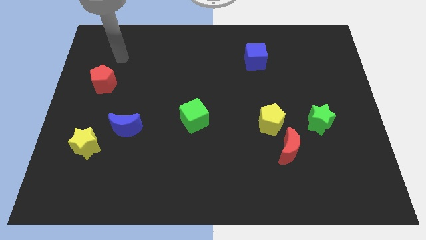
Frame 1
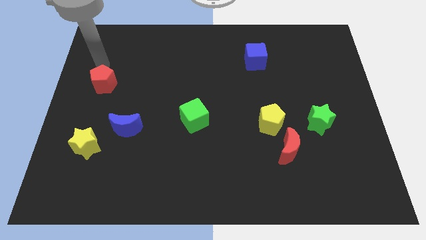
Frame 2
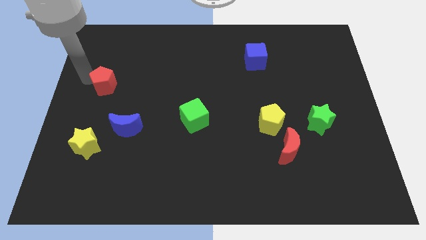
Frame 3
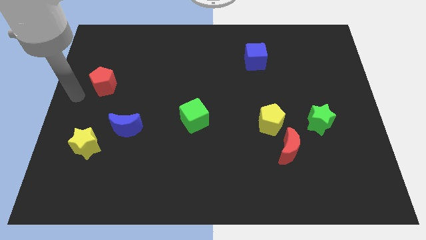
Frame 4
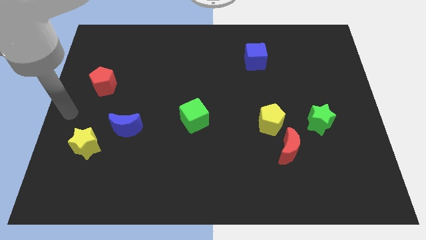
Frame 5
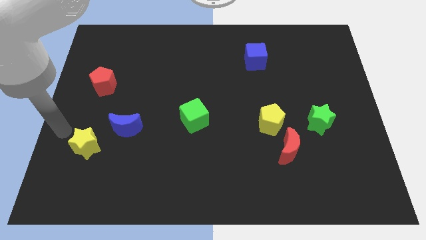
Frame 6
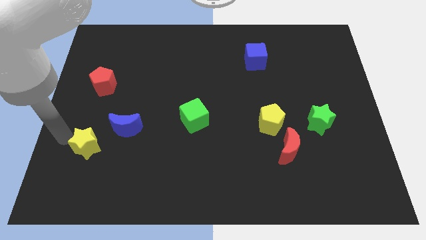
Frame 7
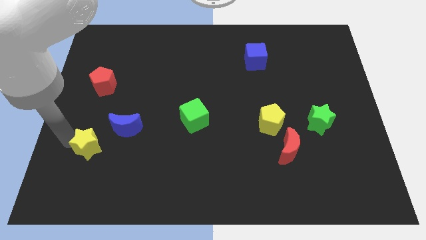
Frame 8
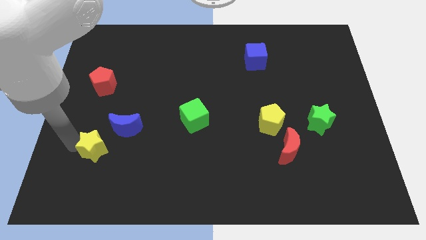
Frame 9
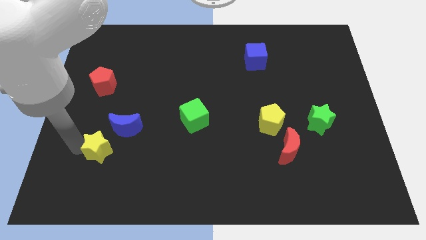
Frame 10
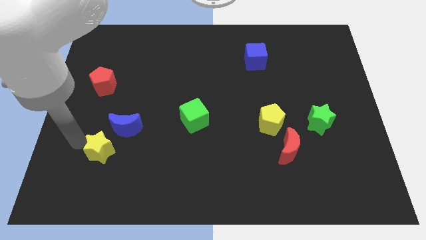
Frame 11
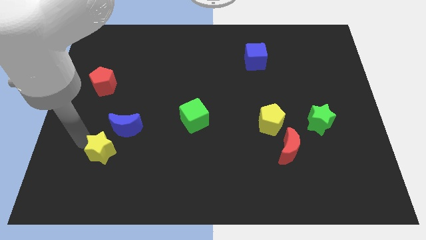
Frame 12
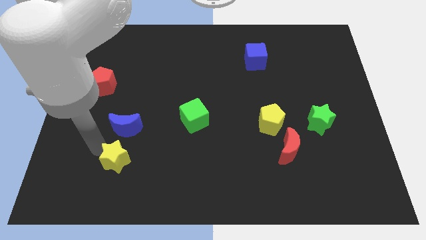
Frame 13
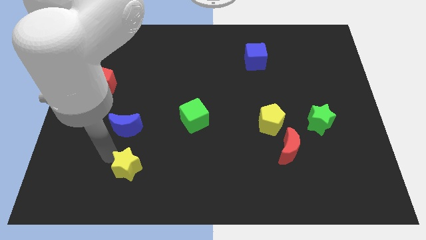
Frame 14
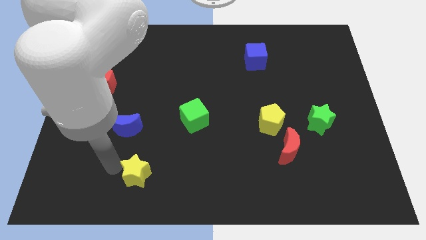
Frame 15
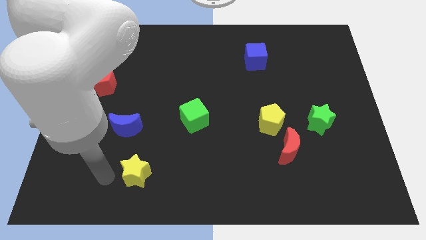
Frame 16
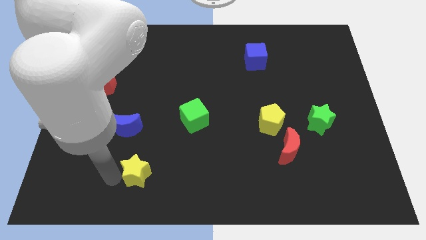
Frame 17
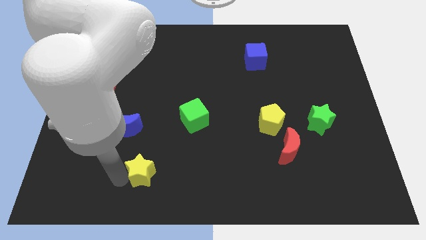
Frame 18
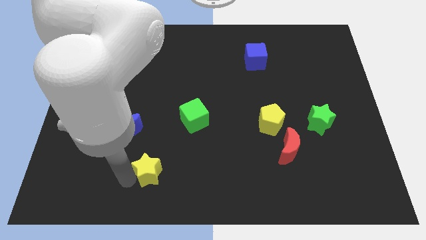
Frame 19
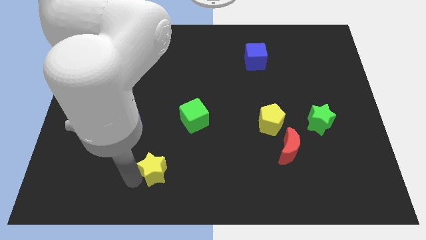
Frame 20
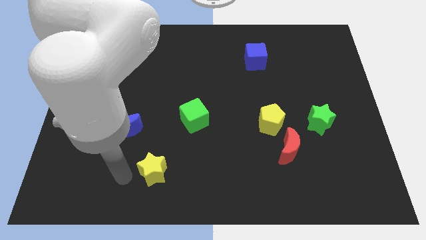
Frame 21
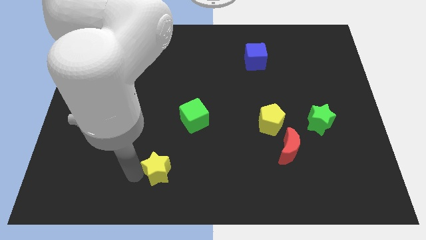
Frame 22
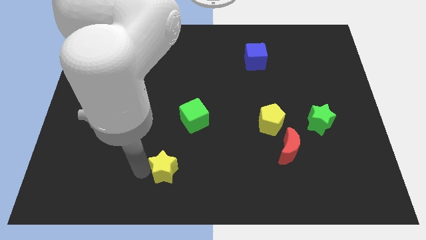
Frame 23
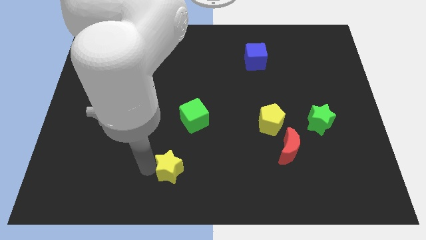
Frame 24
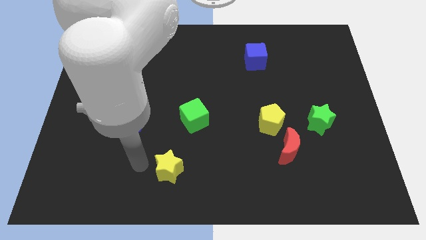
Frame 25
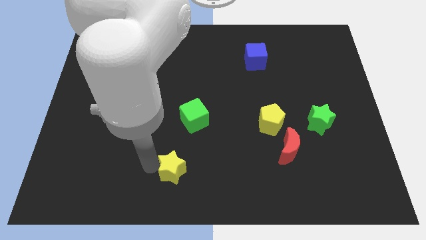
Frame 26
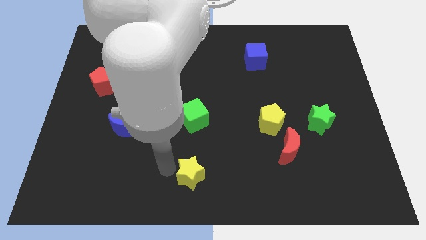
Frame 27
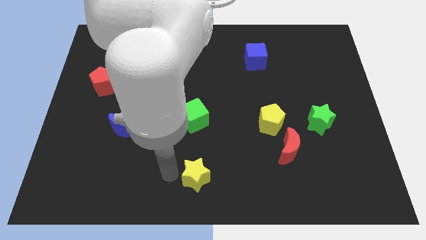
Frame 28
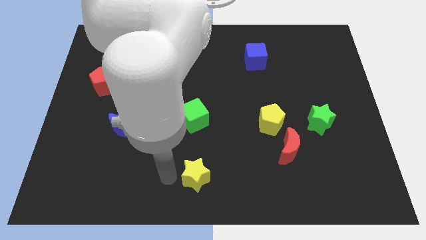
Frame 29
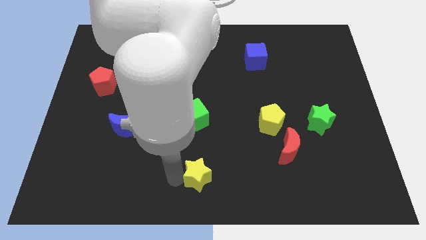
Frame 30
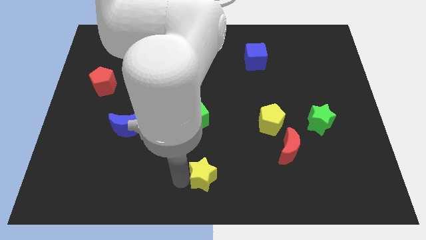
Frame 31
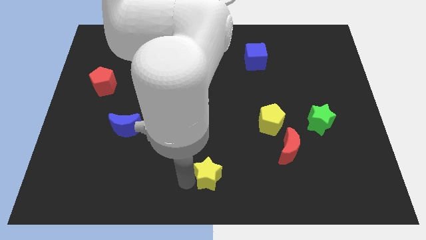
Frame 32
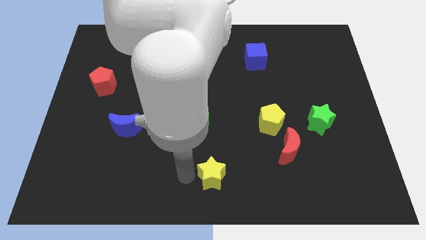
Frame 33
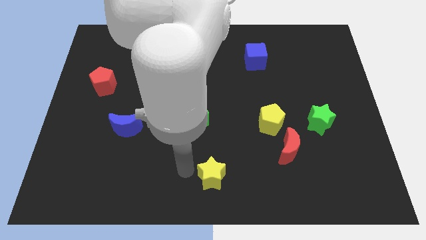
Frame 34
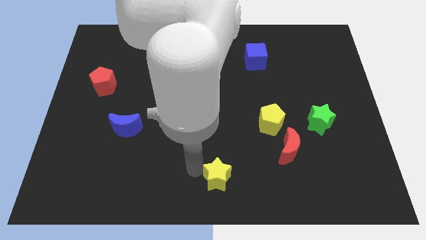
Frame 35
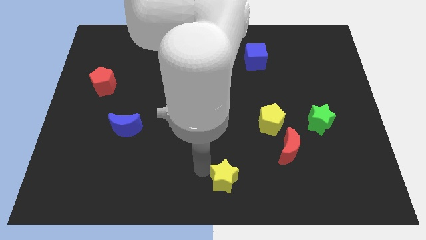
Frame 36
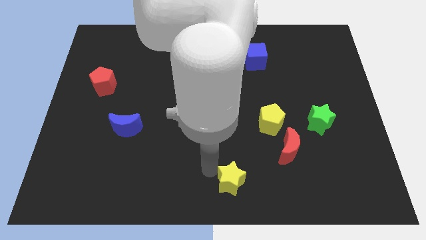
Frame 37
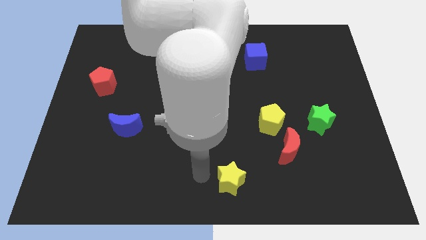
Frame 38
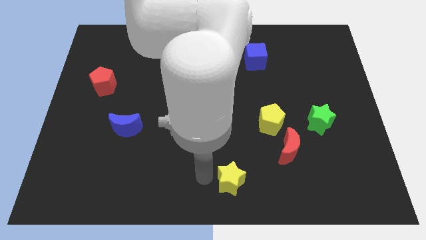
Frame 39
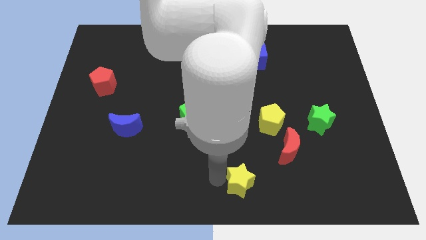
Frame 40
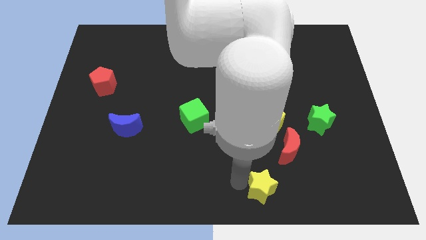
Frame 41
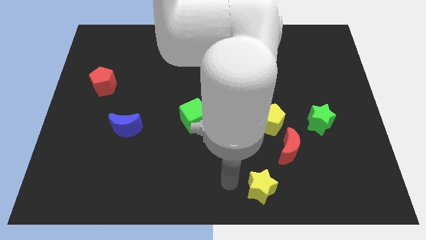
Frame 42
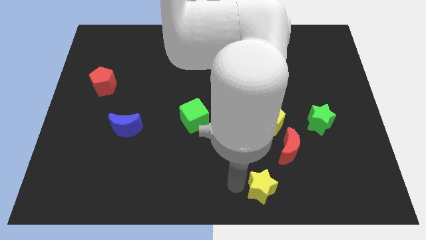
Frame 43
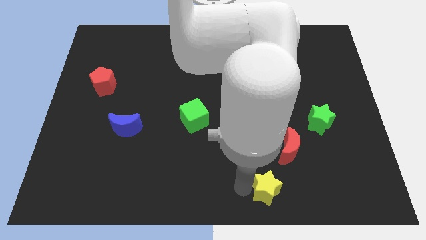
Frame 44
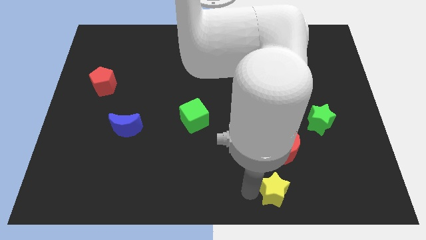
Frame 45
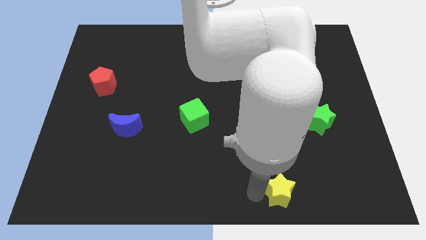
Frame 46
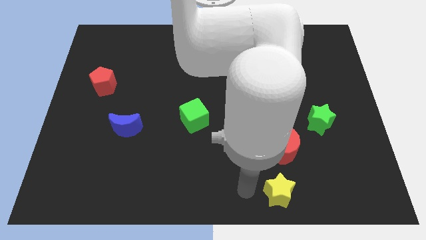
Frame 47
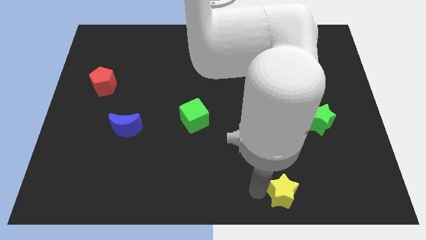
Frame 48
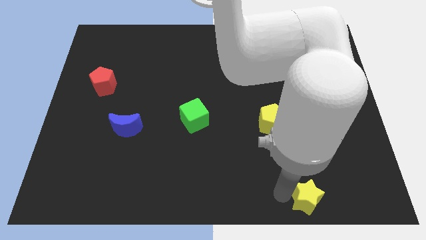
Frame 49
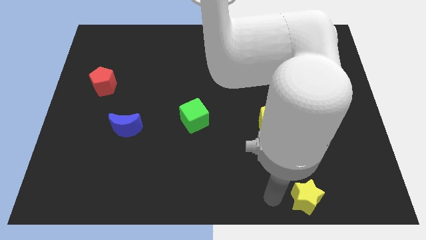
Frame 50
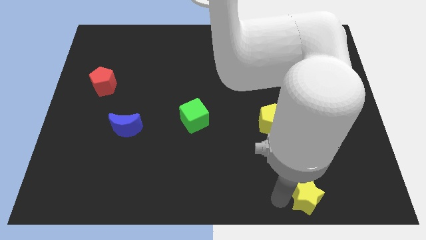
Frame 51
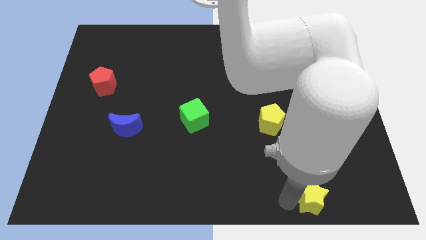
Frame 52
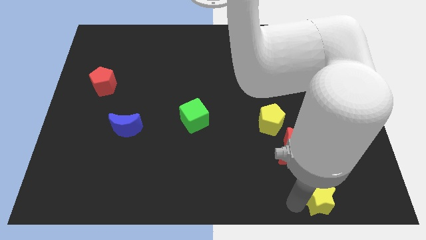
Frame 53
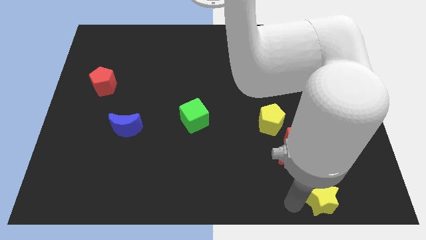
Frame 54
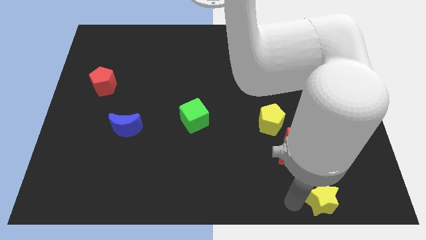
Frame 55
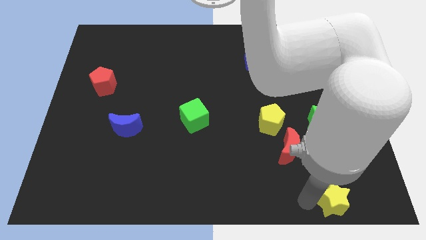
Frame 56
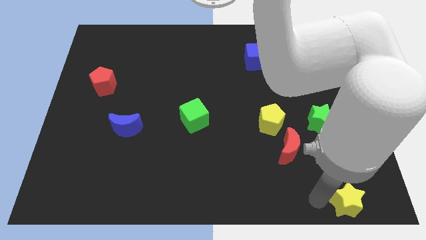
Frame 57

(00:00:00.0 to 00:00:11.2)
slide the yellow star to the bottom right of the board

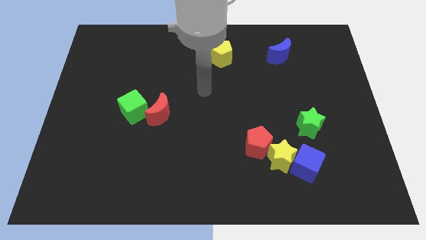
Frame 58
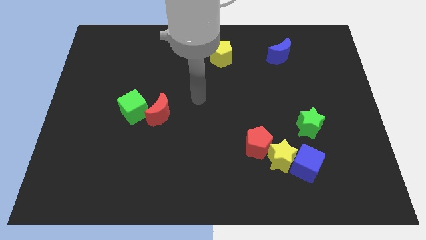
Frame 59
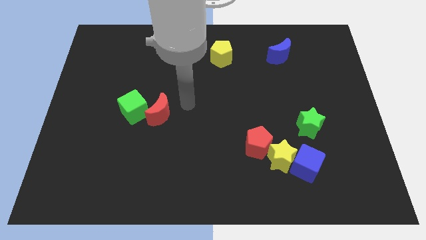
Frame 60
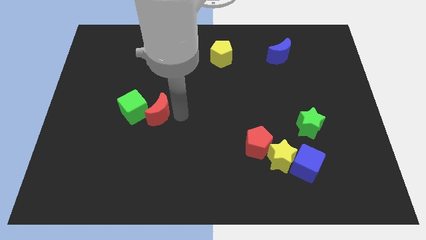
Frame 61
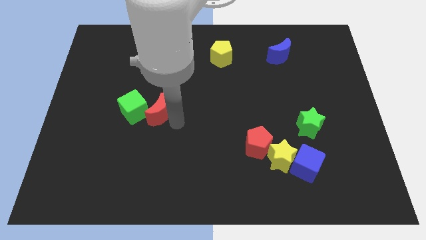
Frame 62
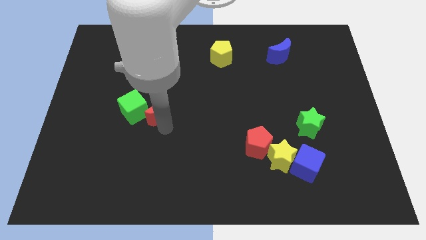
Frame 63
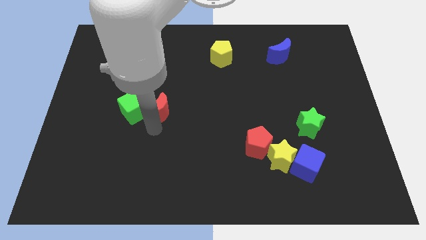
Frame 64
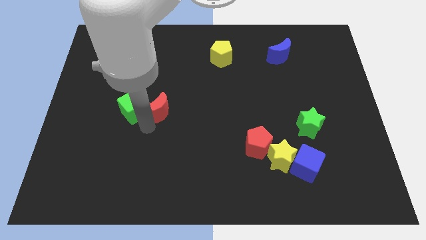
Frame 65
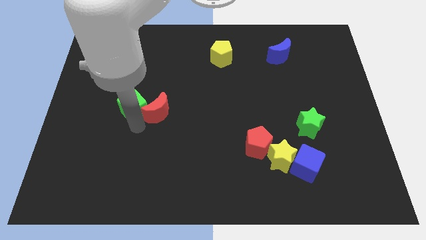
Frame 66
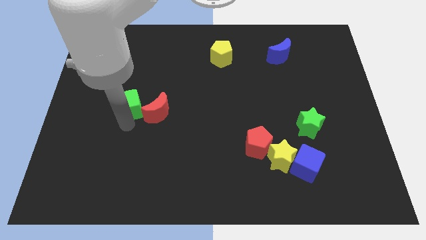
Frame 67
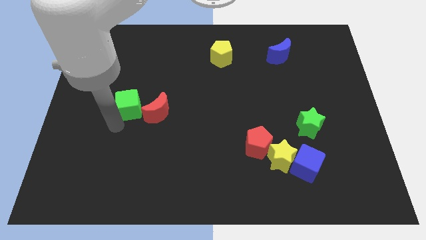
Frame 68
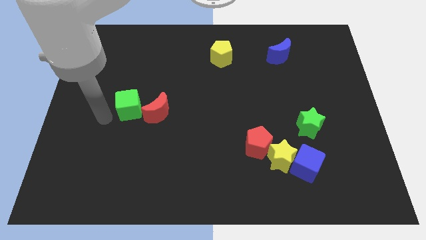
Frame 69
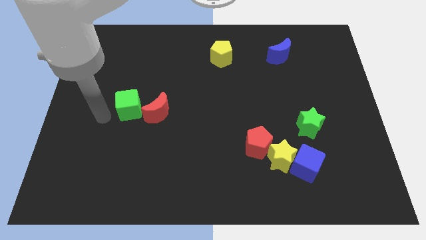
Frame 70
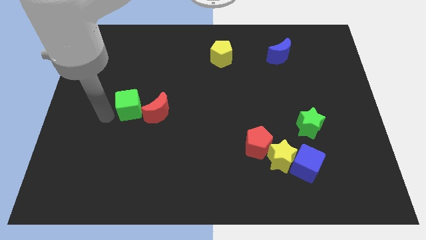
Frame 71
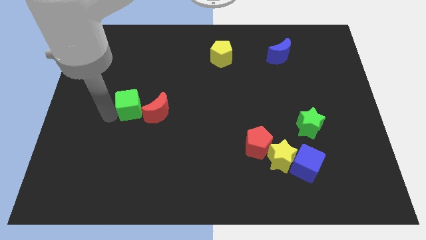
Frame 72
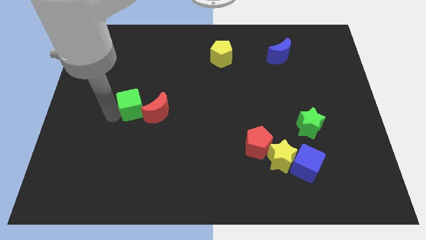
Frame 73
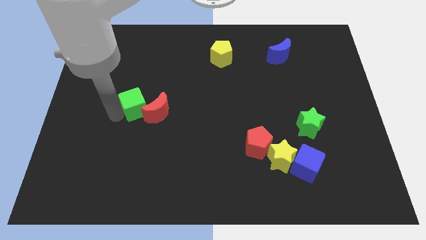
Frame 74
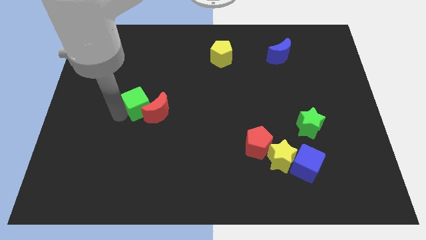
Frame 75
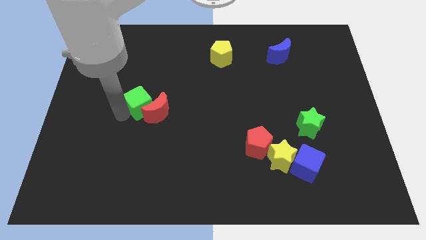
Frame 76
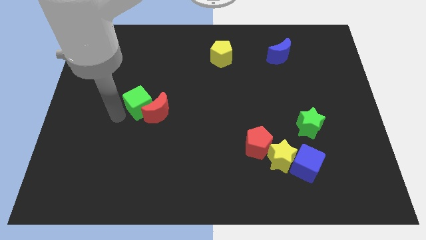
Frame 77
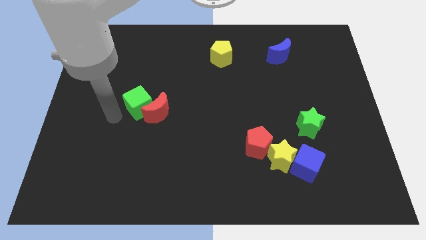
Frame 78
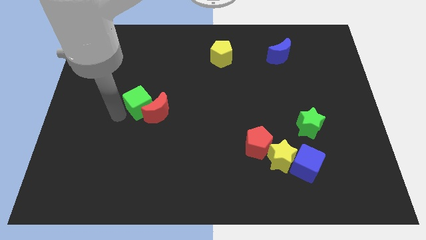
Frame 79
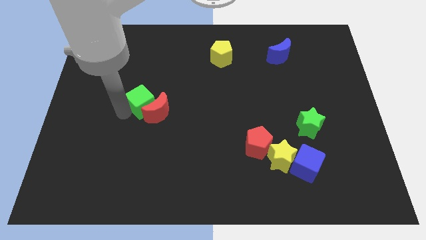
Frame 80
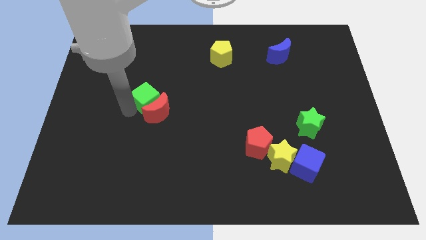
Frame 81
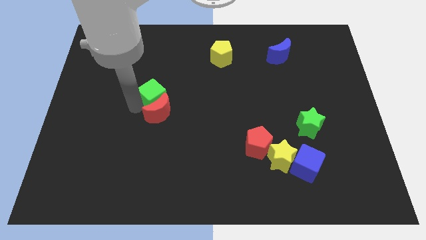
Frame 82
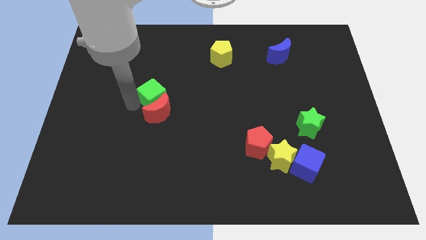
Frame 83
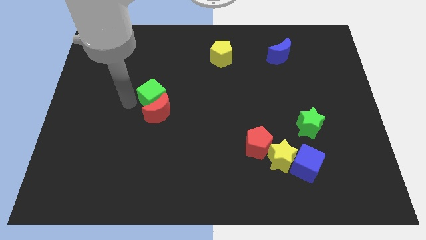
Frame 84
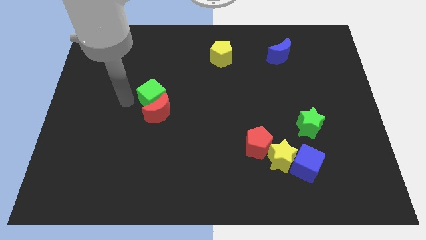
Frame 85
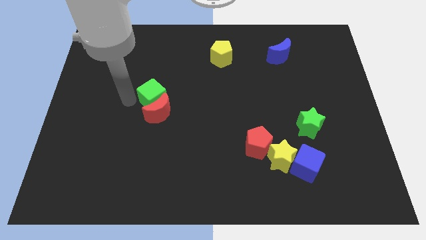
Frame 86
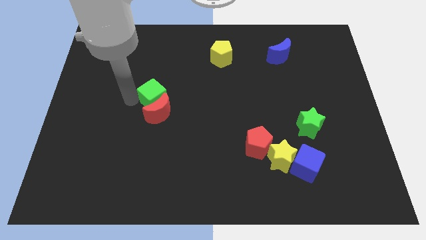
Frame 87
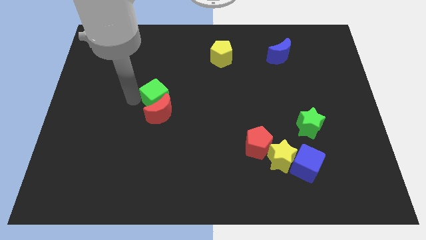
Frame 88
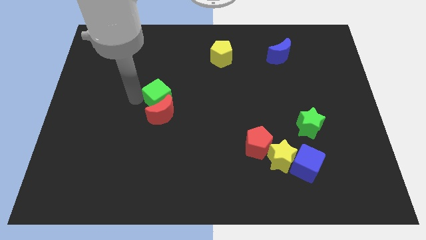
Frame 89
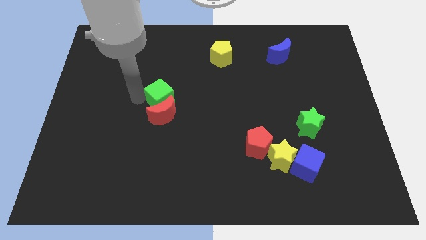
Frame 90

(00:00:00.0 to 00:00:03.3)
put the green cube to the center of the board
